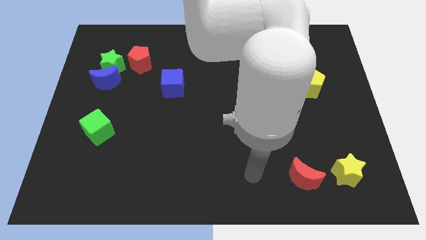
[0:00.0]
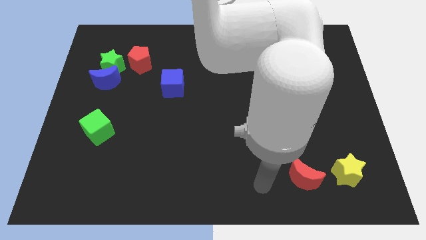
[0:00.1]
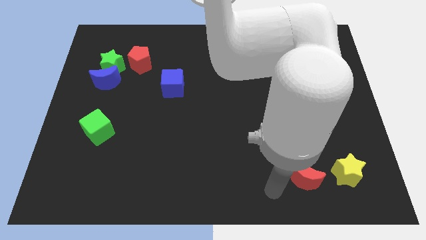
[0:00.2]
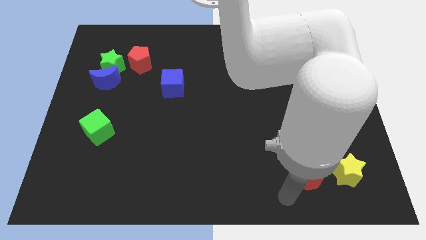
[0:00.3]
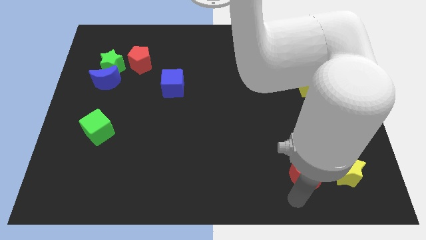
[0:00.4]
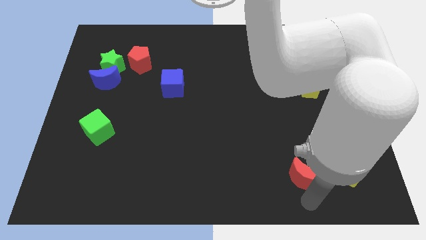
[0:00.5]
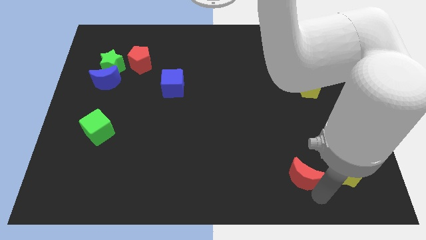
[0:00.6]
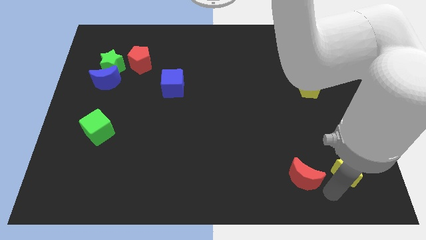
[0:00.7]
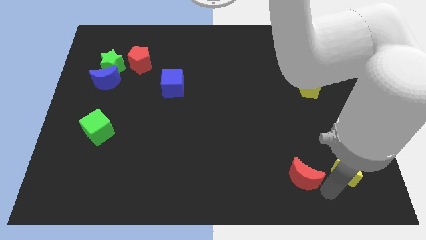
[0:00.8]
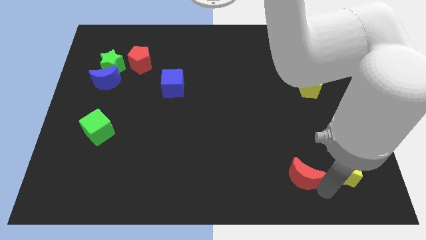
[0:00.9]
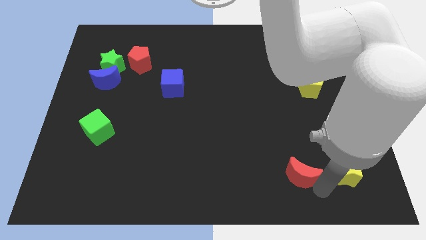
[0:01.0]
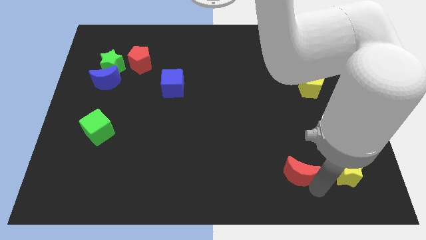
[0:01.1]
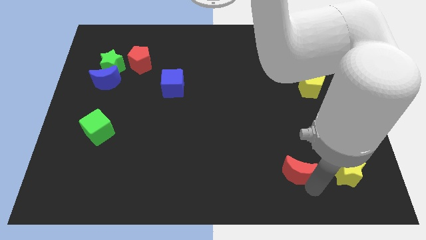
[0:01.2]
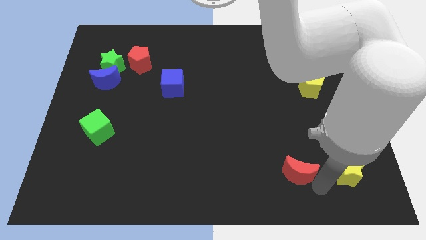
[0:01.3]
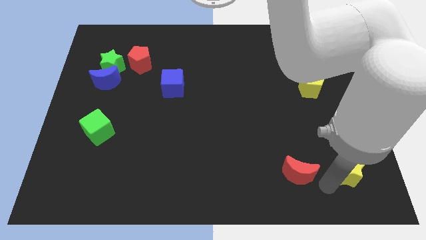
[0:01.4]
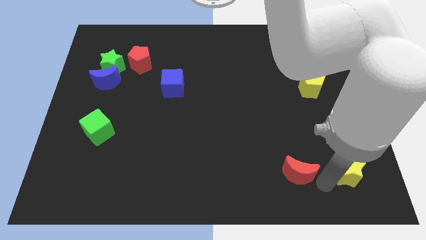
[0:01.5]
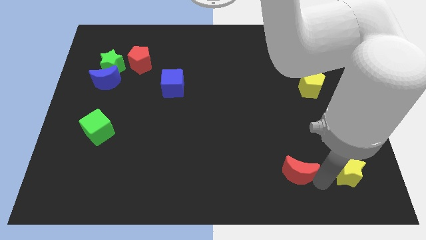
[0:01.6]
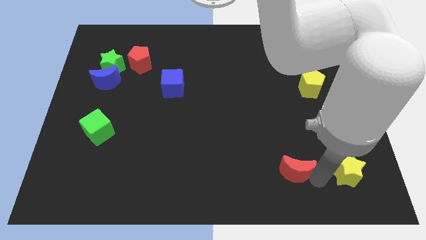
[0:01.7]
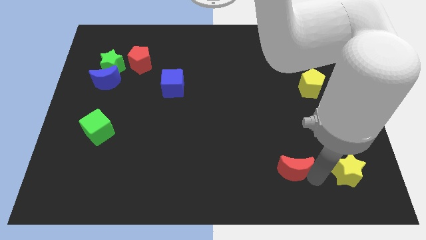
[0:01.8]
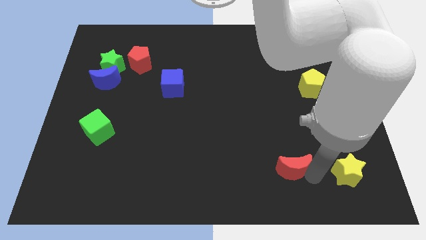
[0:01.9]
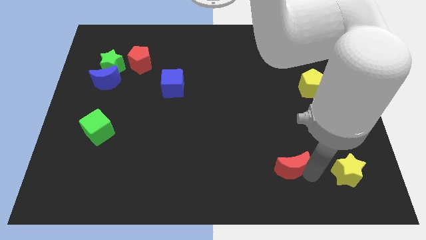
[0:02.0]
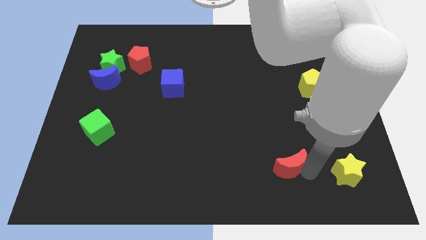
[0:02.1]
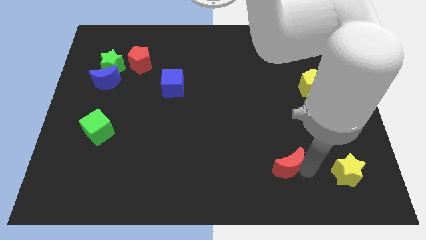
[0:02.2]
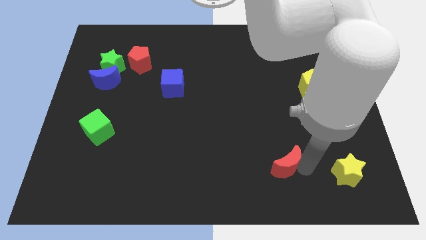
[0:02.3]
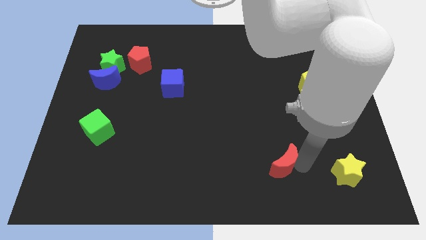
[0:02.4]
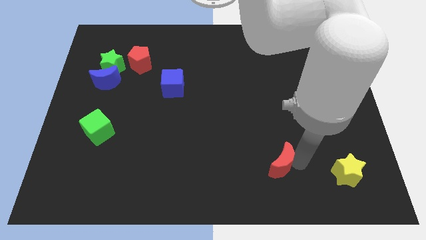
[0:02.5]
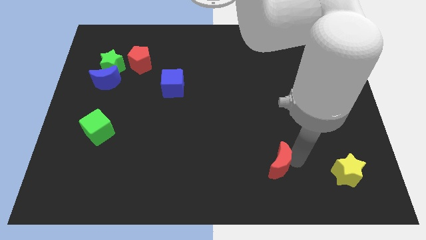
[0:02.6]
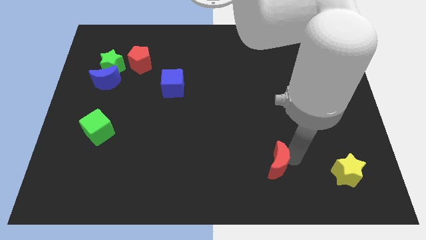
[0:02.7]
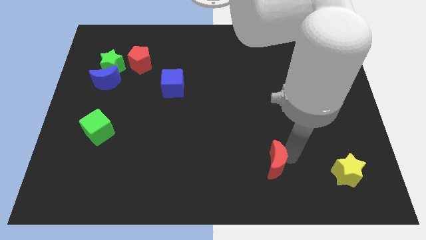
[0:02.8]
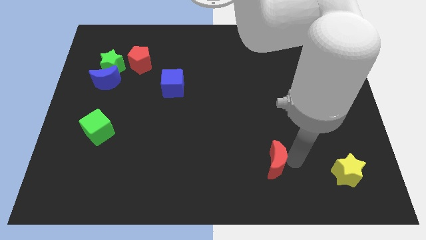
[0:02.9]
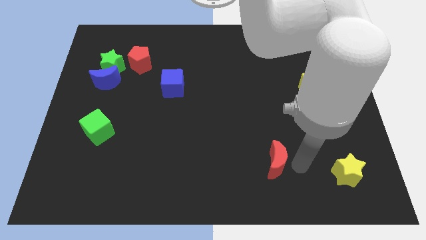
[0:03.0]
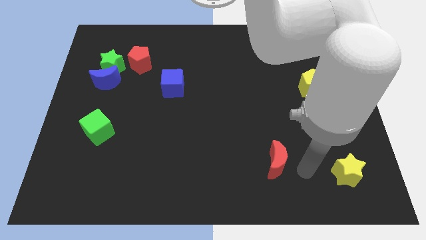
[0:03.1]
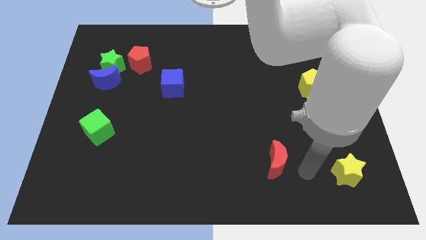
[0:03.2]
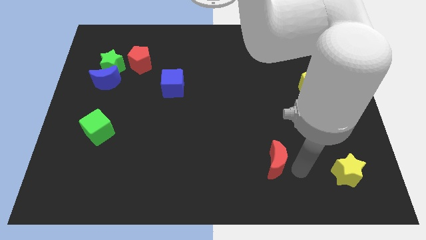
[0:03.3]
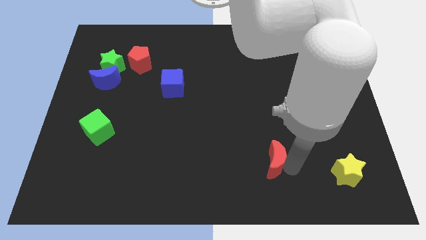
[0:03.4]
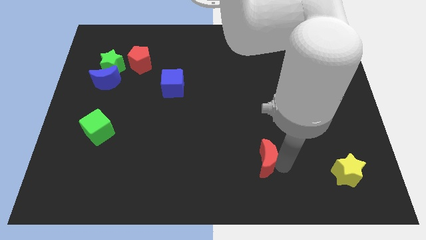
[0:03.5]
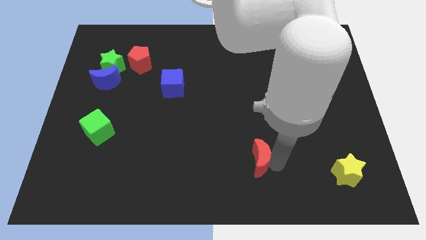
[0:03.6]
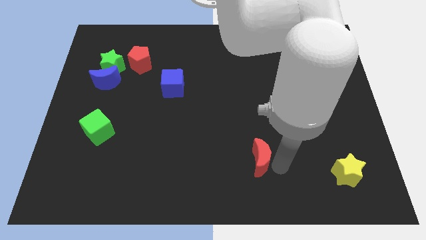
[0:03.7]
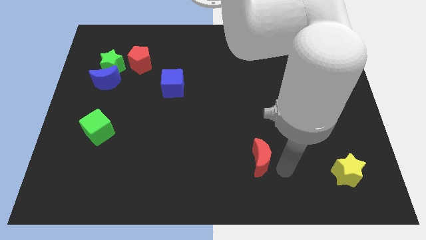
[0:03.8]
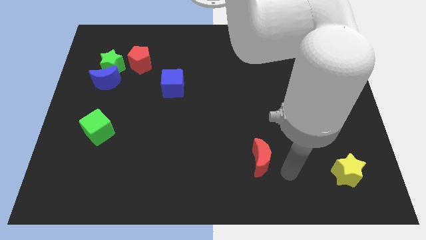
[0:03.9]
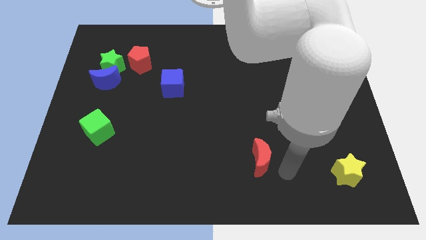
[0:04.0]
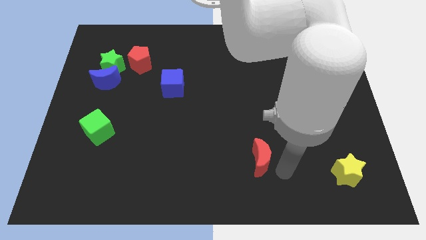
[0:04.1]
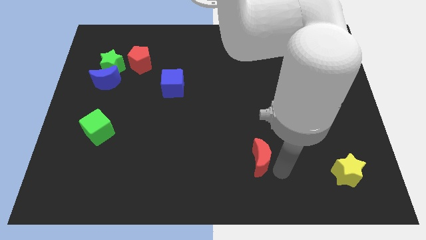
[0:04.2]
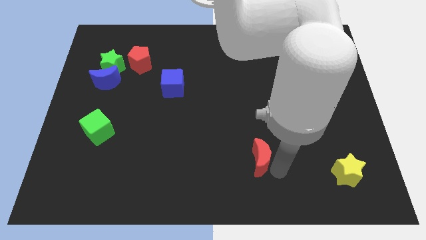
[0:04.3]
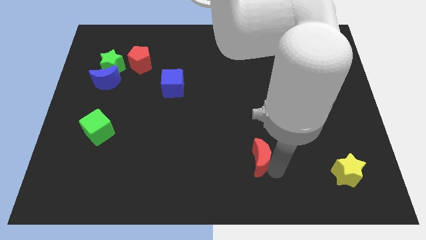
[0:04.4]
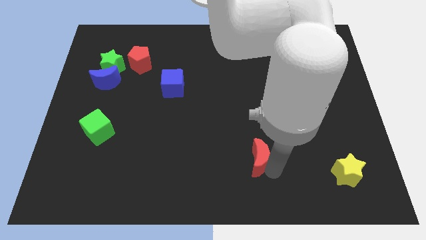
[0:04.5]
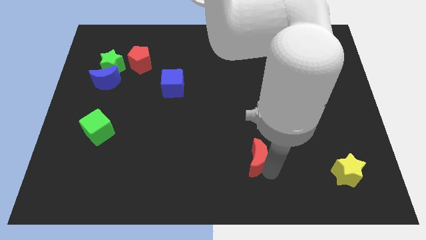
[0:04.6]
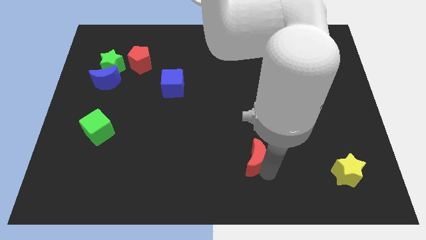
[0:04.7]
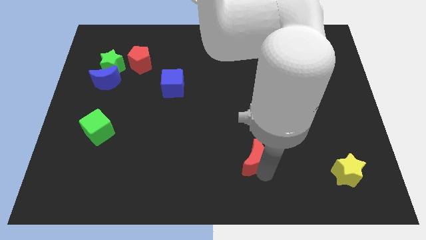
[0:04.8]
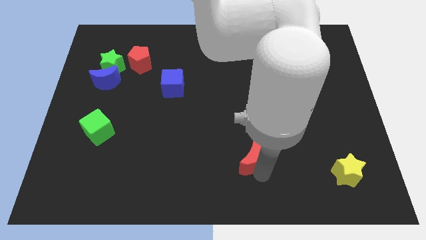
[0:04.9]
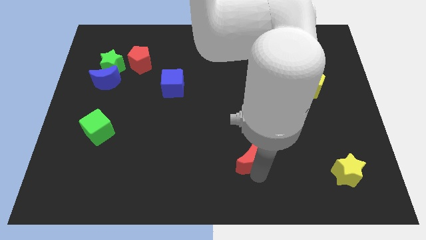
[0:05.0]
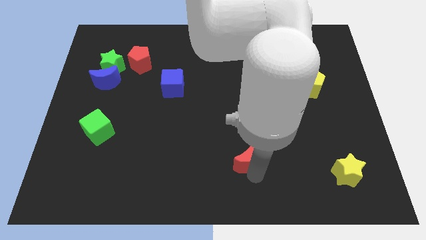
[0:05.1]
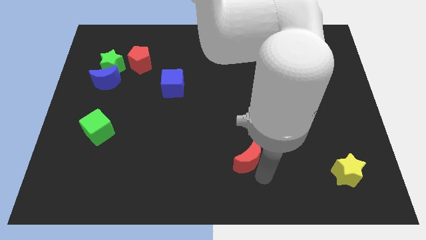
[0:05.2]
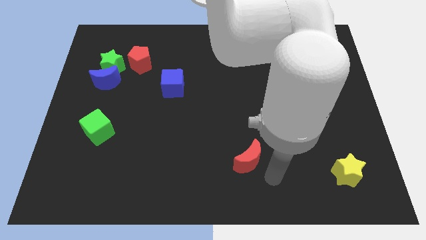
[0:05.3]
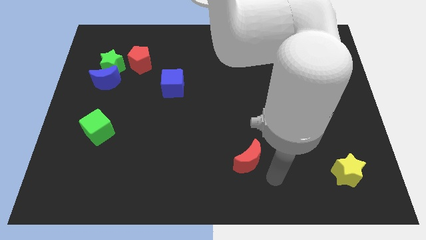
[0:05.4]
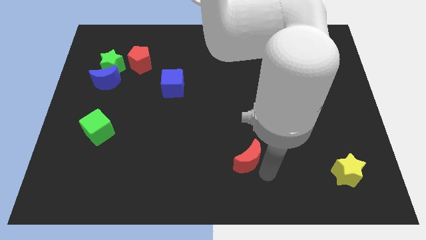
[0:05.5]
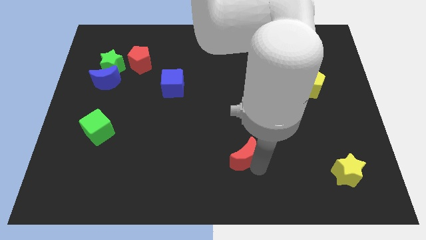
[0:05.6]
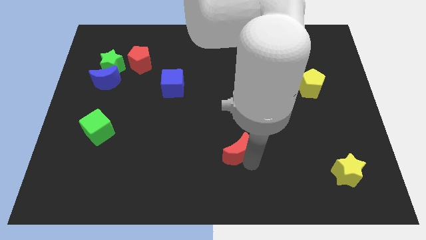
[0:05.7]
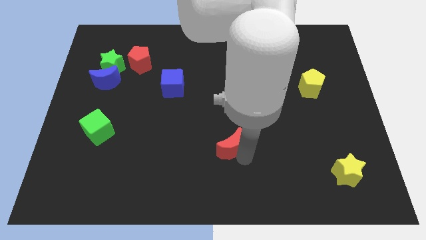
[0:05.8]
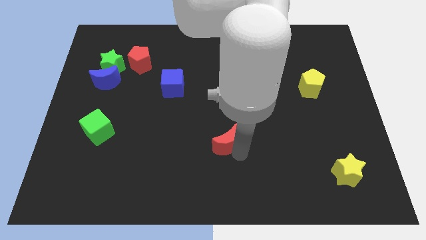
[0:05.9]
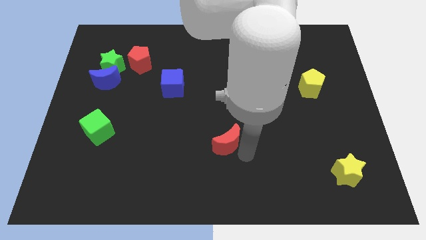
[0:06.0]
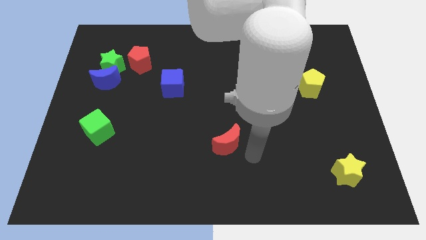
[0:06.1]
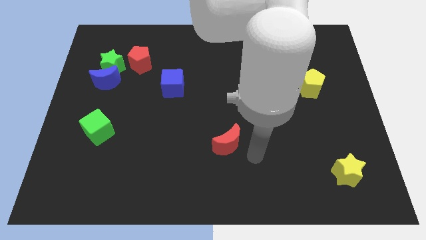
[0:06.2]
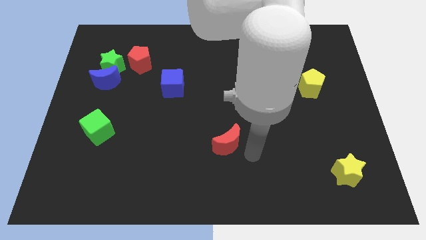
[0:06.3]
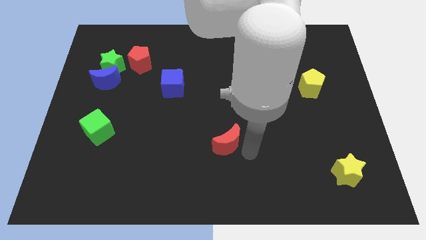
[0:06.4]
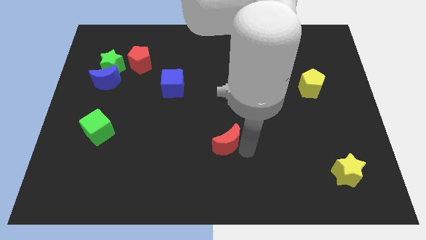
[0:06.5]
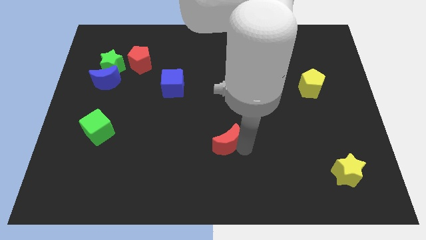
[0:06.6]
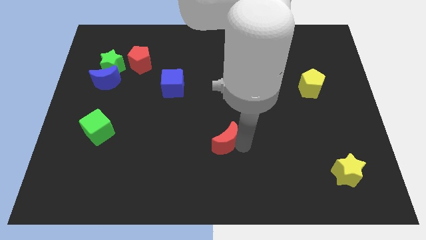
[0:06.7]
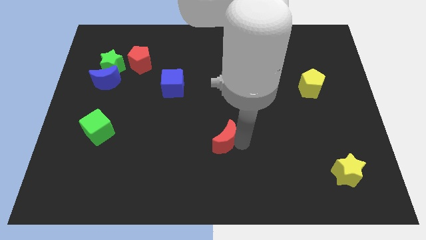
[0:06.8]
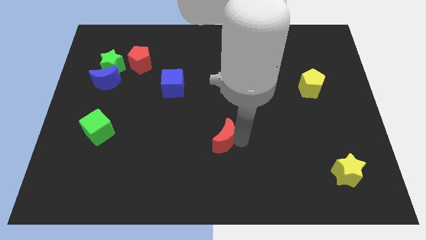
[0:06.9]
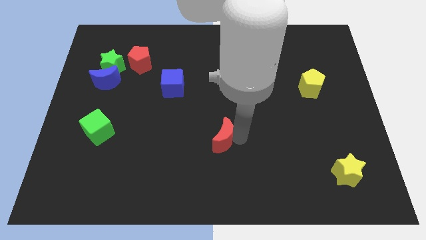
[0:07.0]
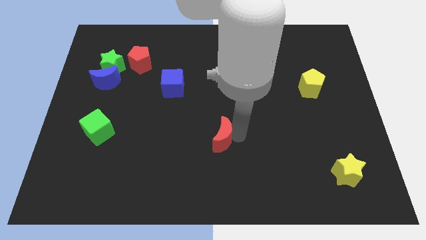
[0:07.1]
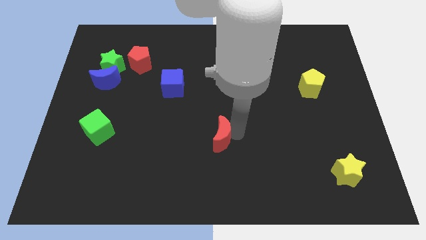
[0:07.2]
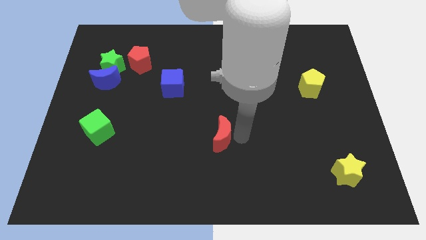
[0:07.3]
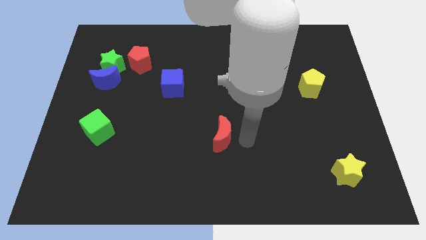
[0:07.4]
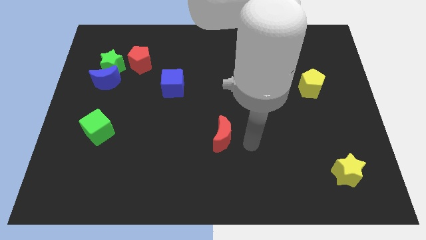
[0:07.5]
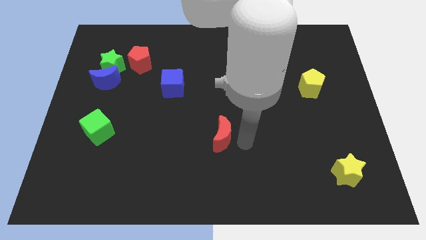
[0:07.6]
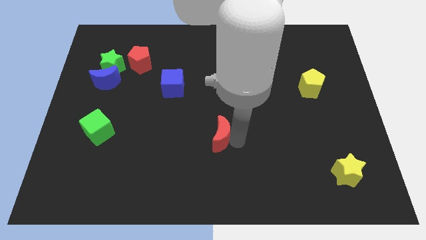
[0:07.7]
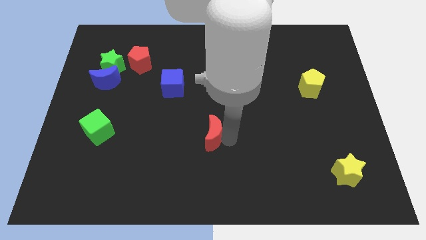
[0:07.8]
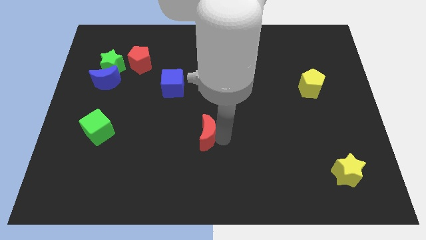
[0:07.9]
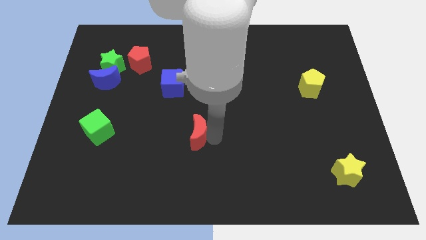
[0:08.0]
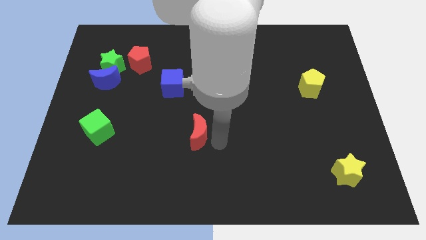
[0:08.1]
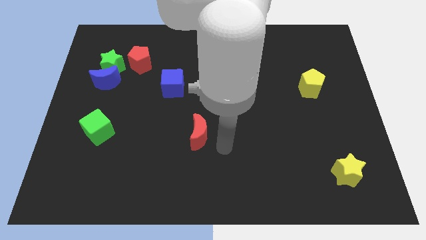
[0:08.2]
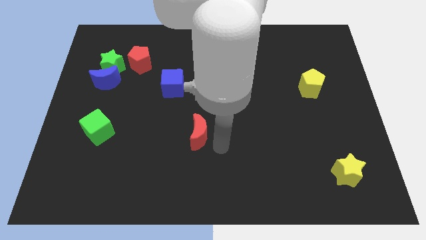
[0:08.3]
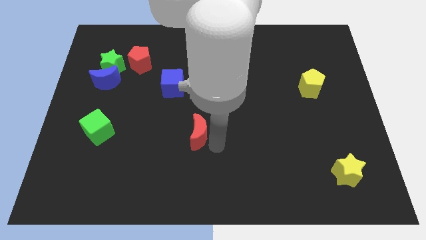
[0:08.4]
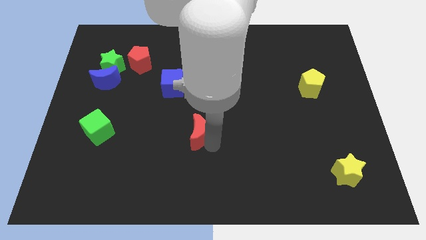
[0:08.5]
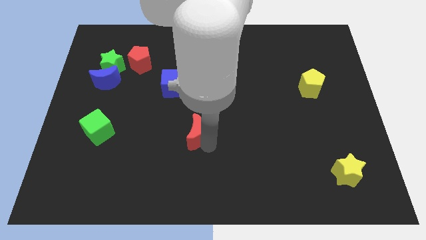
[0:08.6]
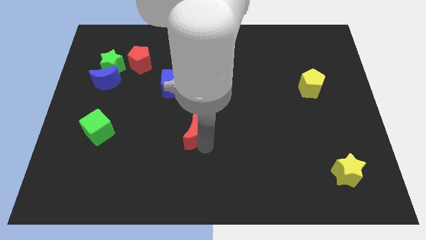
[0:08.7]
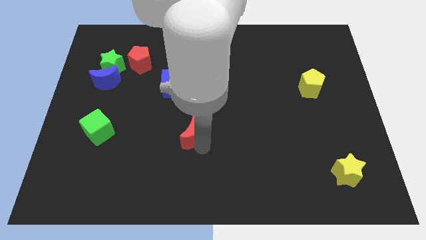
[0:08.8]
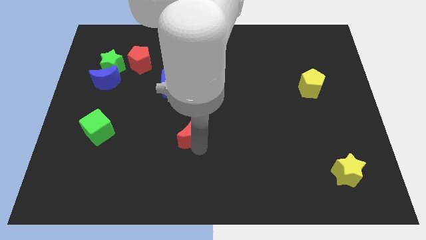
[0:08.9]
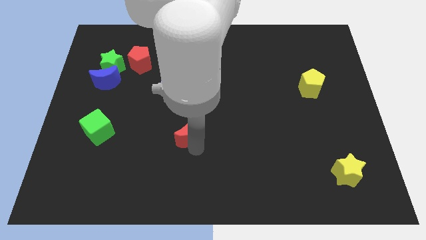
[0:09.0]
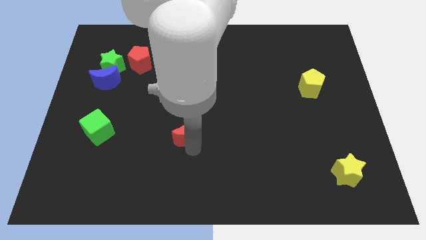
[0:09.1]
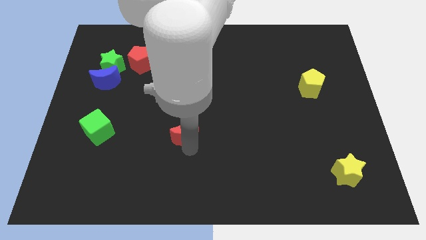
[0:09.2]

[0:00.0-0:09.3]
slide the red moon to the bottom of the blue cube
